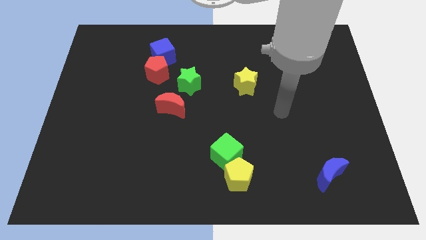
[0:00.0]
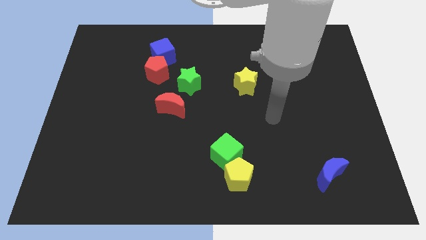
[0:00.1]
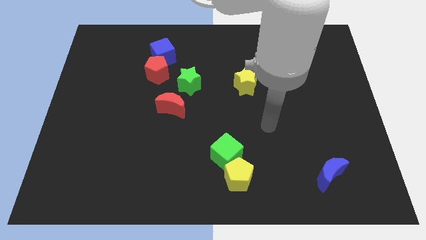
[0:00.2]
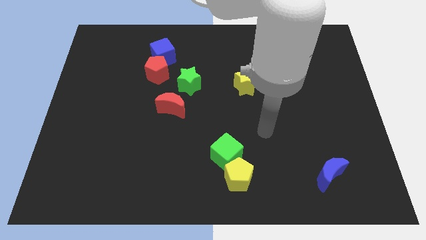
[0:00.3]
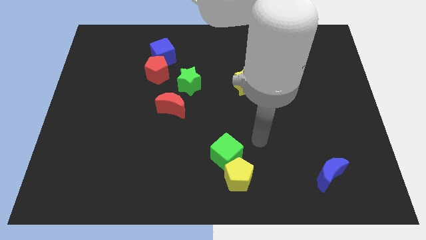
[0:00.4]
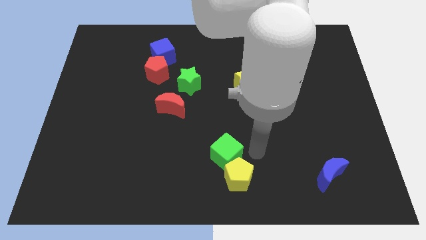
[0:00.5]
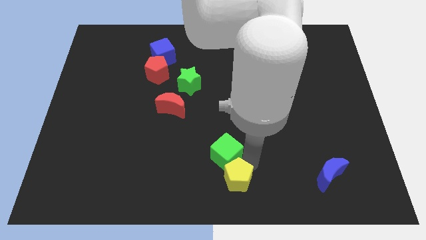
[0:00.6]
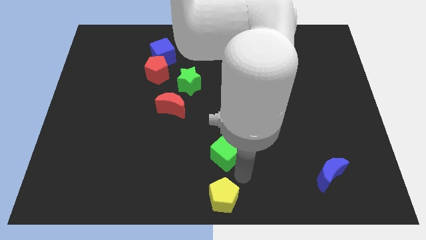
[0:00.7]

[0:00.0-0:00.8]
pull the green cube apart from the yellow pentagon

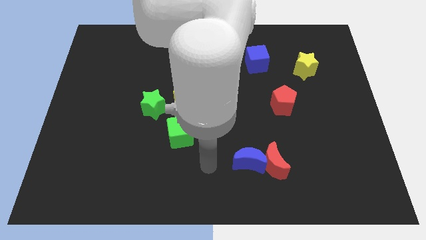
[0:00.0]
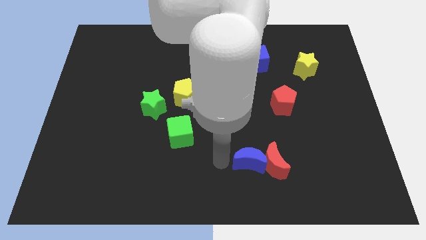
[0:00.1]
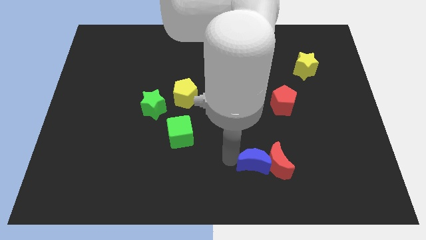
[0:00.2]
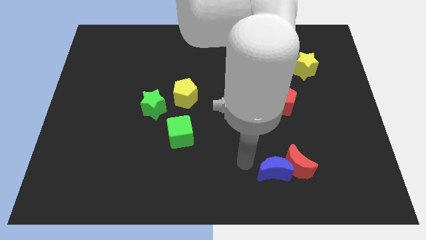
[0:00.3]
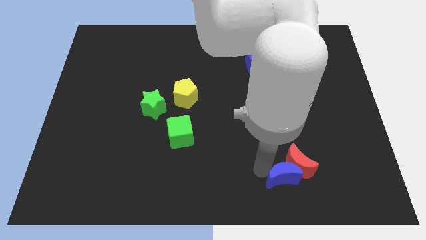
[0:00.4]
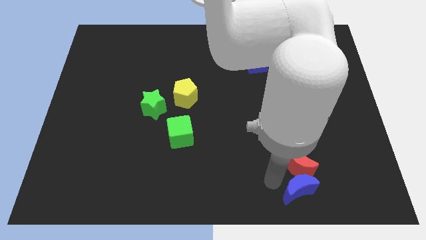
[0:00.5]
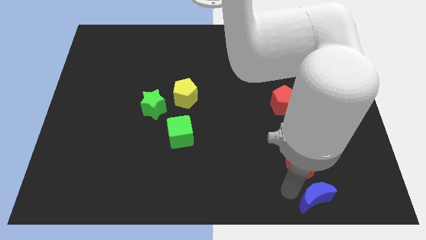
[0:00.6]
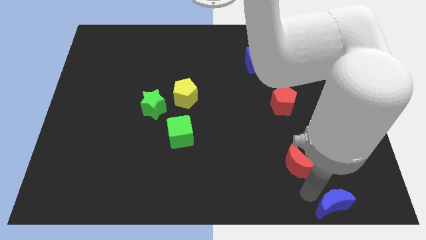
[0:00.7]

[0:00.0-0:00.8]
move the red moon away from the blue moon

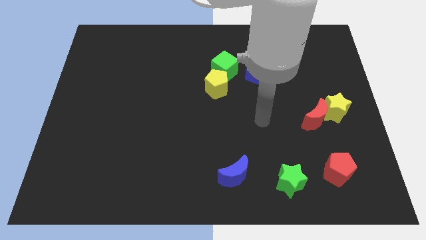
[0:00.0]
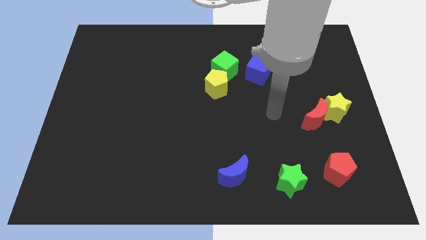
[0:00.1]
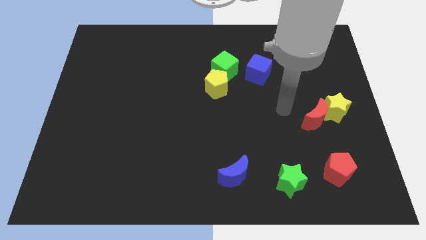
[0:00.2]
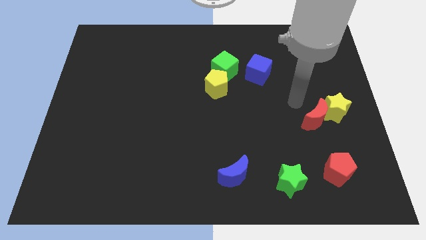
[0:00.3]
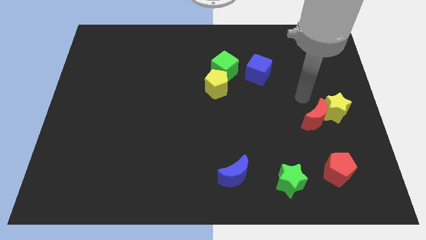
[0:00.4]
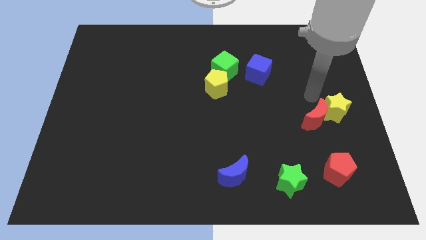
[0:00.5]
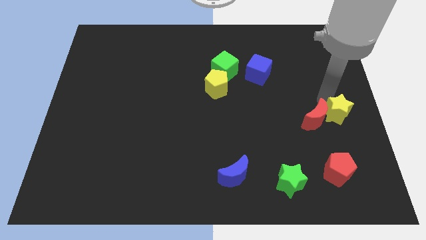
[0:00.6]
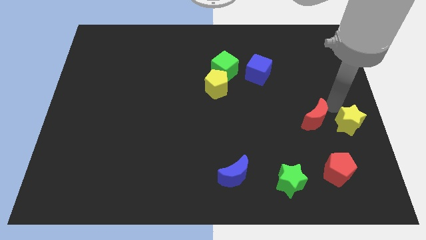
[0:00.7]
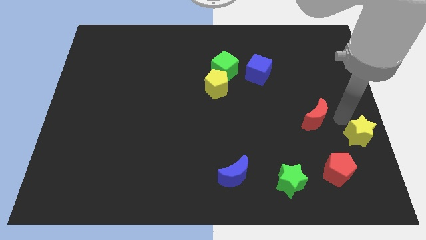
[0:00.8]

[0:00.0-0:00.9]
separate the red moon from the yellow star

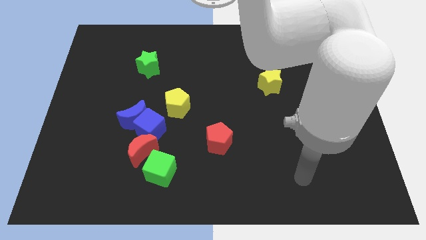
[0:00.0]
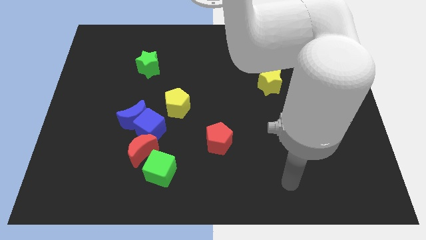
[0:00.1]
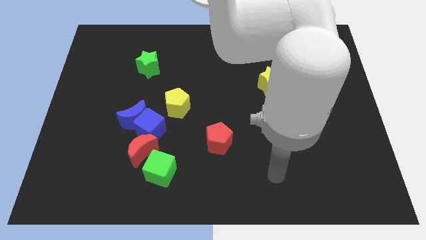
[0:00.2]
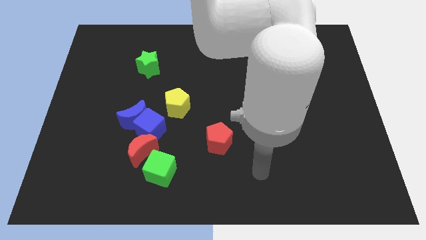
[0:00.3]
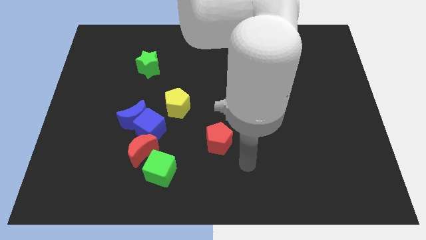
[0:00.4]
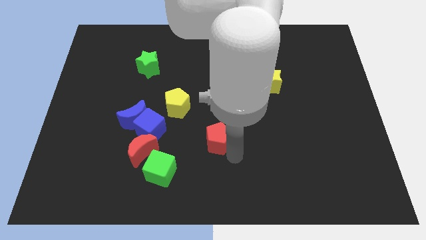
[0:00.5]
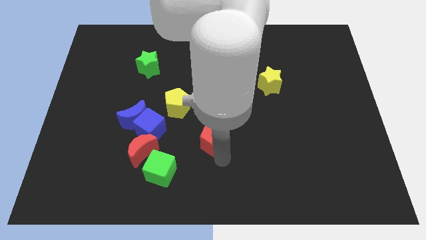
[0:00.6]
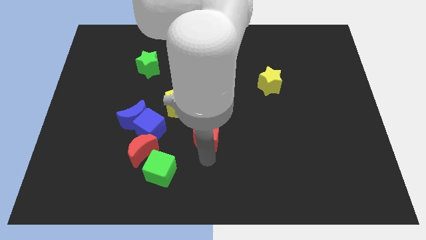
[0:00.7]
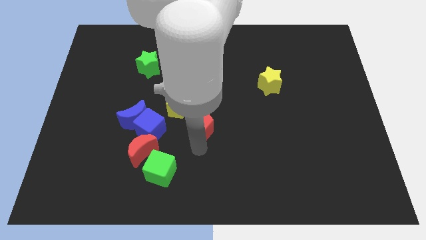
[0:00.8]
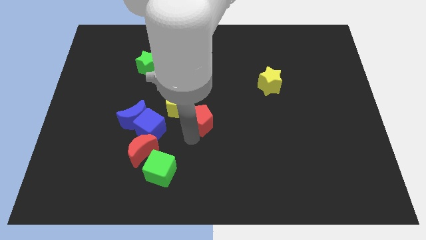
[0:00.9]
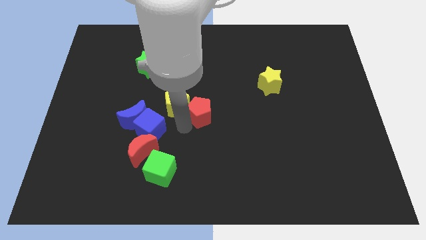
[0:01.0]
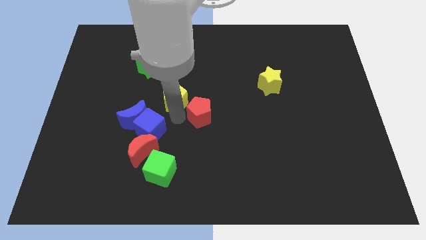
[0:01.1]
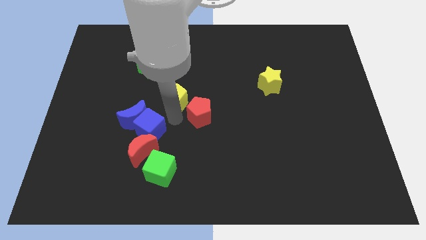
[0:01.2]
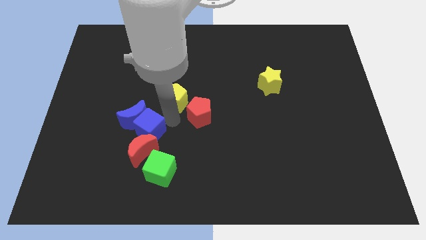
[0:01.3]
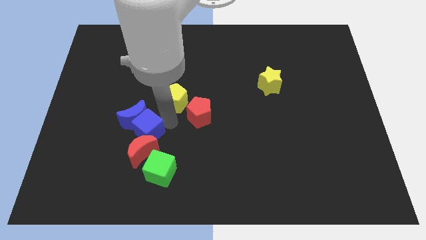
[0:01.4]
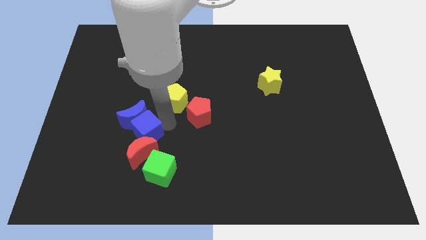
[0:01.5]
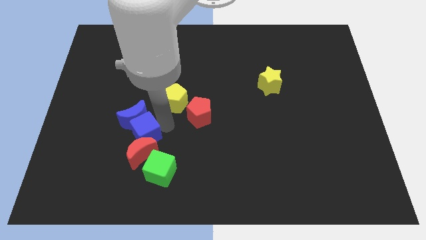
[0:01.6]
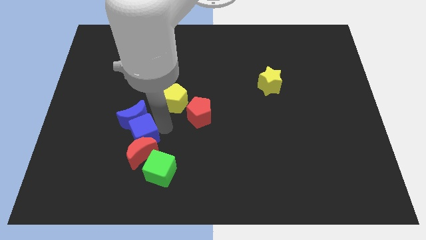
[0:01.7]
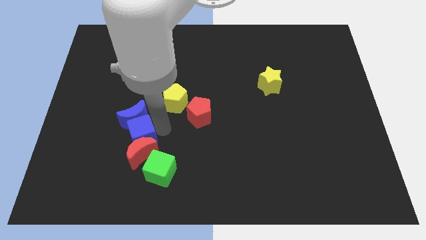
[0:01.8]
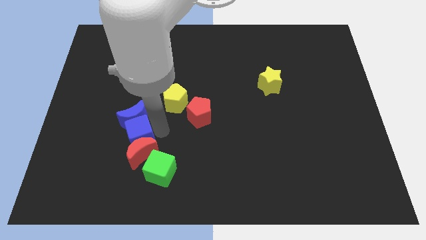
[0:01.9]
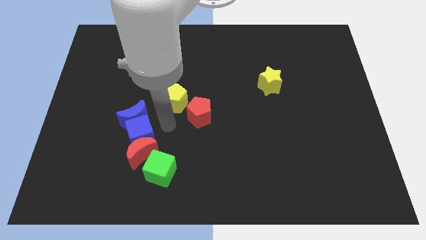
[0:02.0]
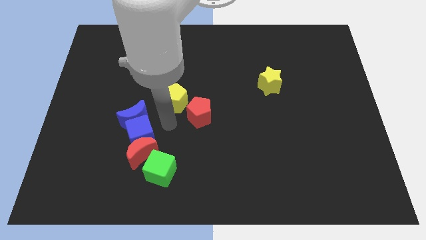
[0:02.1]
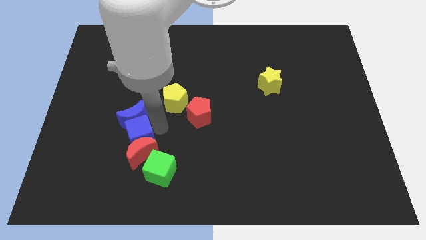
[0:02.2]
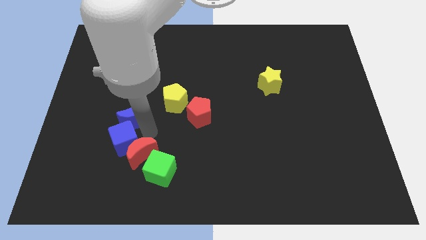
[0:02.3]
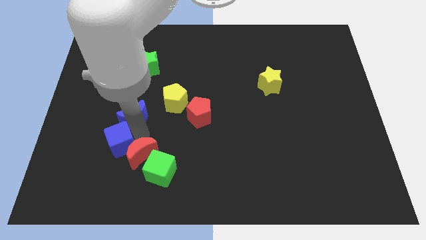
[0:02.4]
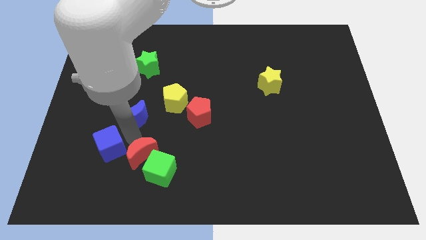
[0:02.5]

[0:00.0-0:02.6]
pull the blue cube apart from the blue moon, red moon, and yellow pentagon

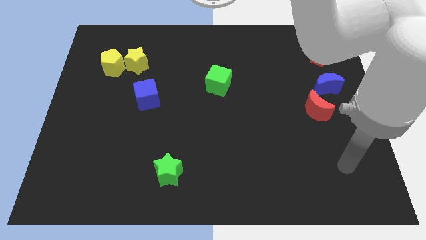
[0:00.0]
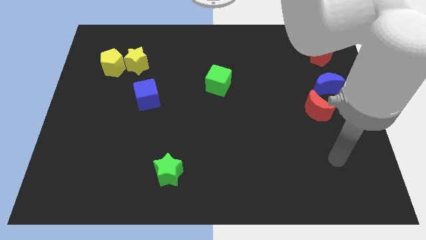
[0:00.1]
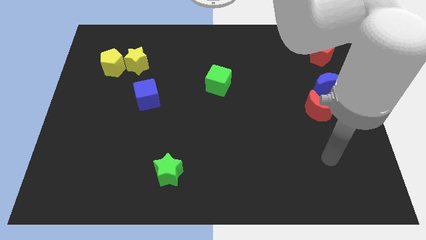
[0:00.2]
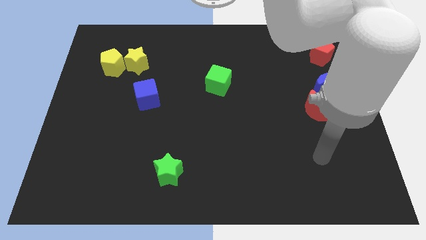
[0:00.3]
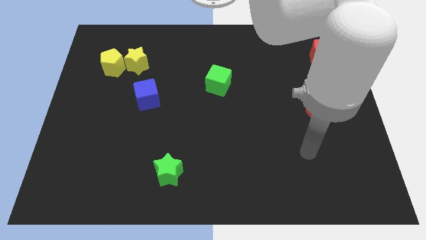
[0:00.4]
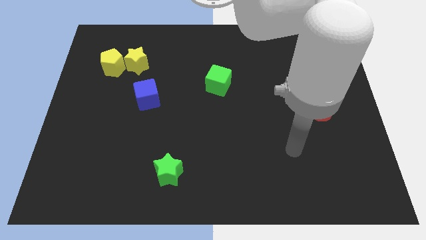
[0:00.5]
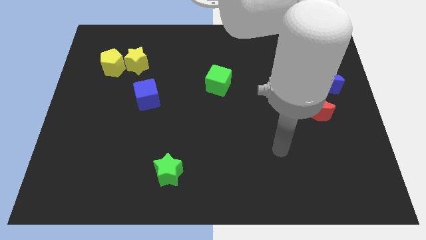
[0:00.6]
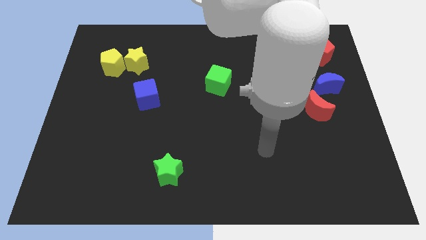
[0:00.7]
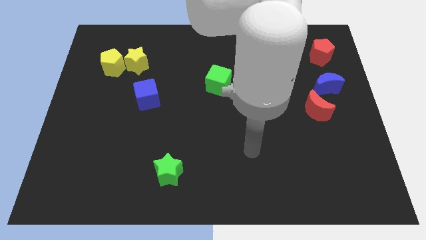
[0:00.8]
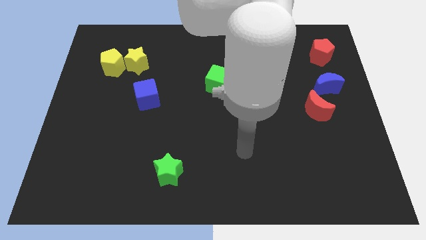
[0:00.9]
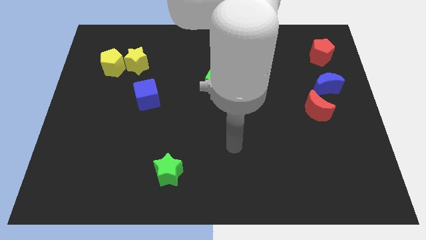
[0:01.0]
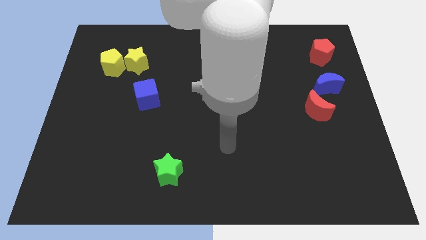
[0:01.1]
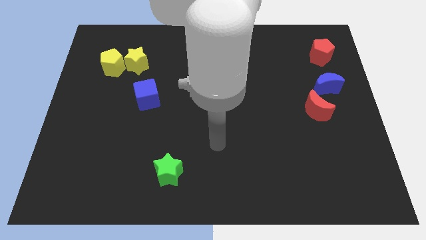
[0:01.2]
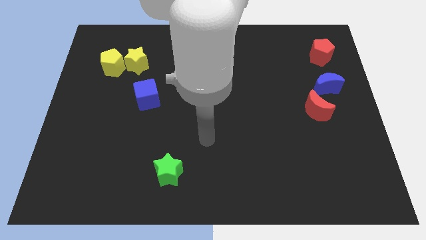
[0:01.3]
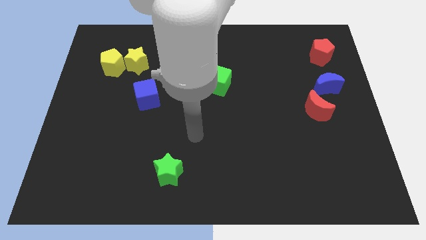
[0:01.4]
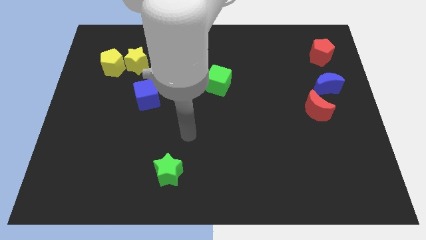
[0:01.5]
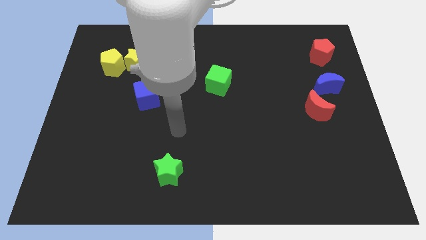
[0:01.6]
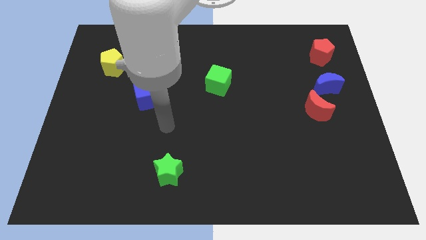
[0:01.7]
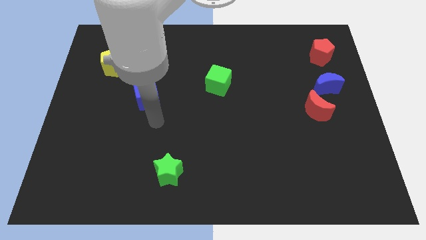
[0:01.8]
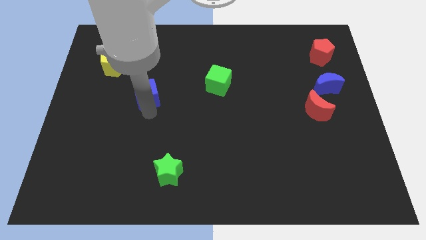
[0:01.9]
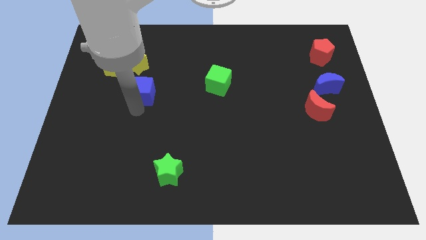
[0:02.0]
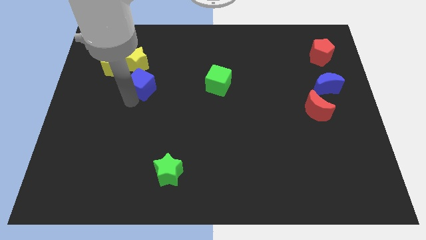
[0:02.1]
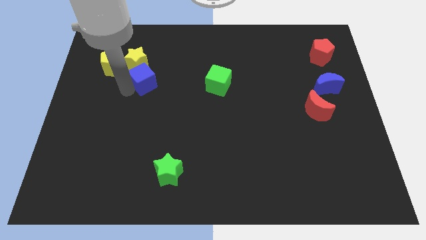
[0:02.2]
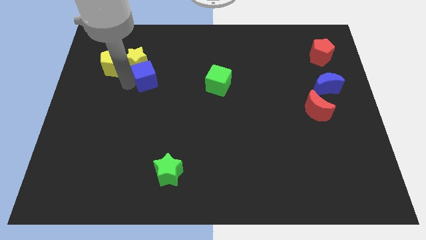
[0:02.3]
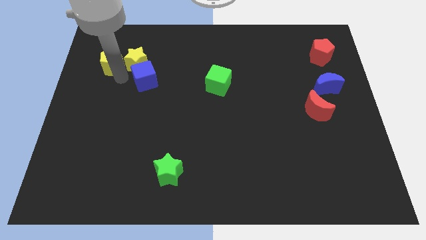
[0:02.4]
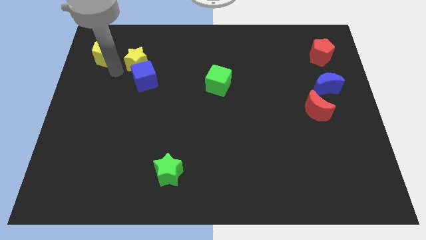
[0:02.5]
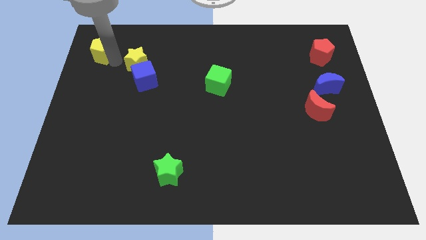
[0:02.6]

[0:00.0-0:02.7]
separate the yellow star from the yellow pentagon

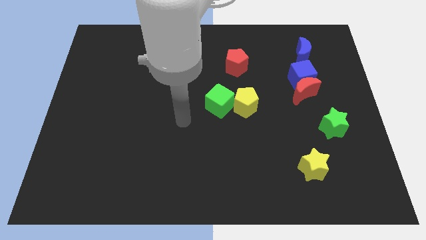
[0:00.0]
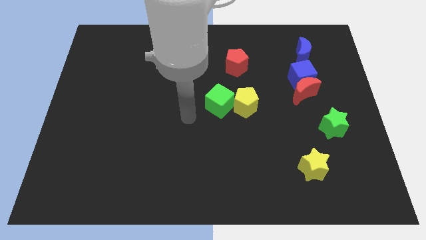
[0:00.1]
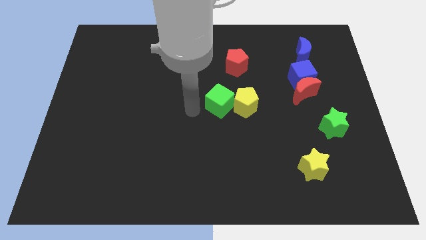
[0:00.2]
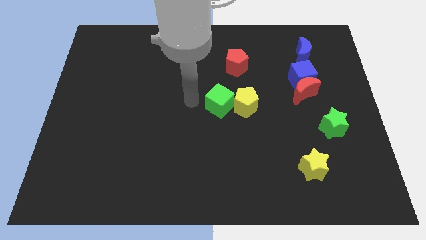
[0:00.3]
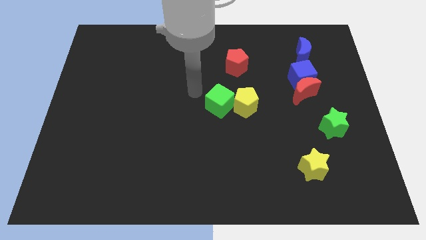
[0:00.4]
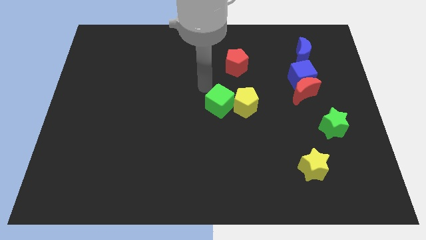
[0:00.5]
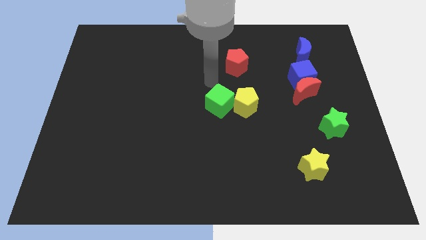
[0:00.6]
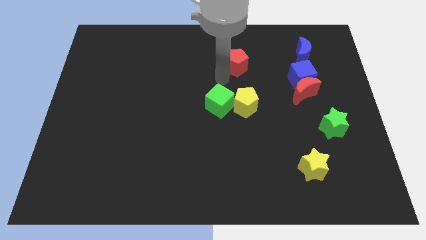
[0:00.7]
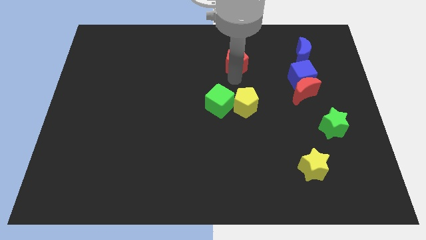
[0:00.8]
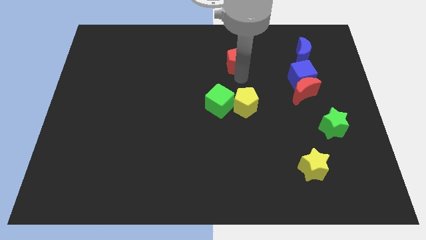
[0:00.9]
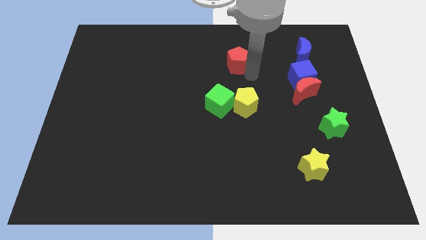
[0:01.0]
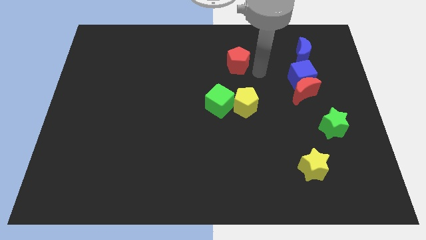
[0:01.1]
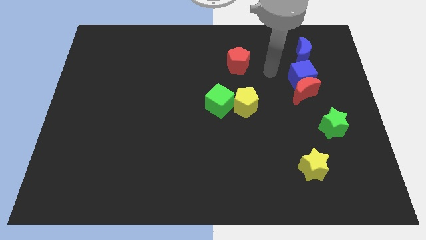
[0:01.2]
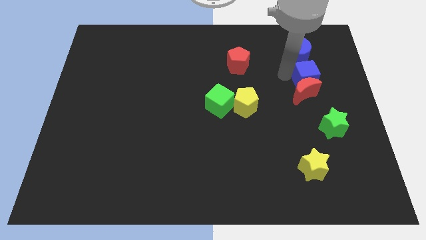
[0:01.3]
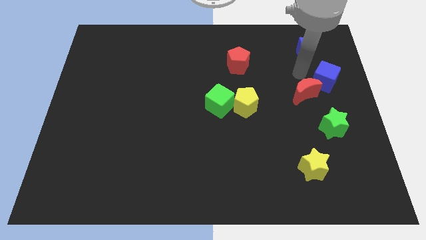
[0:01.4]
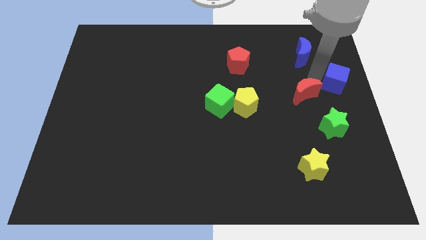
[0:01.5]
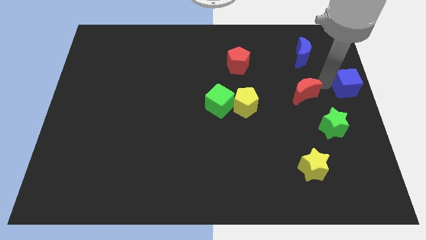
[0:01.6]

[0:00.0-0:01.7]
move the red moon away from the blue cube
